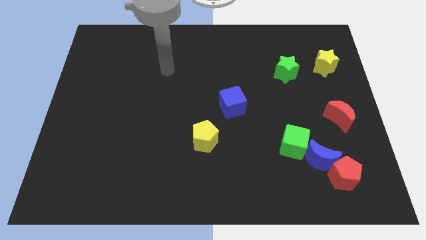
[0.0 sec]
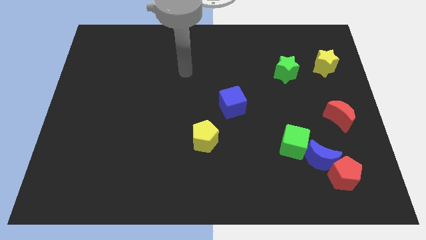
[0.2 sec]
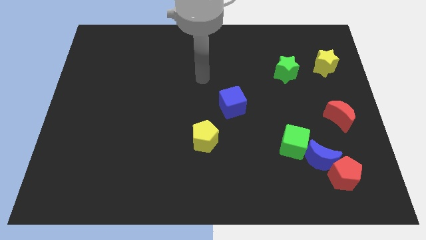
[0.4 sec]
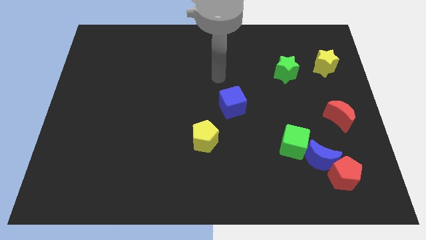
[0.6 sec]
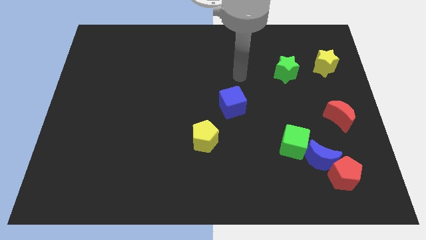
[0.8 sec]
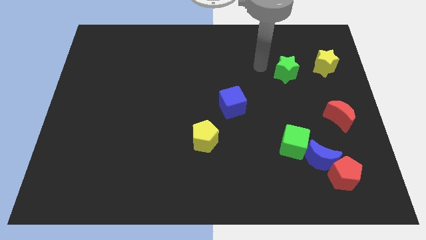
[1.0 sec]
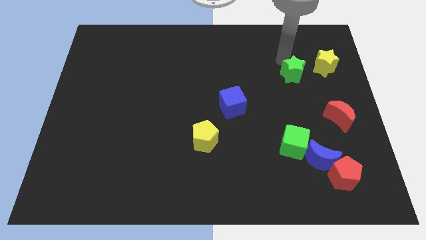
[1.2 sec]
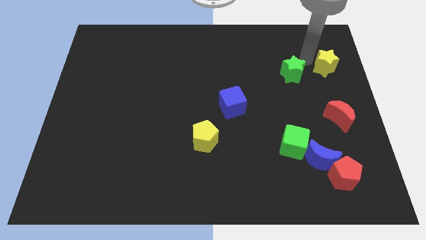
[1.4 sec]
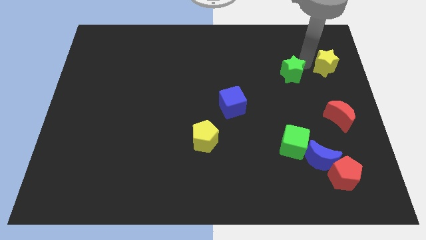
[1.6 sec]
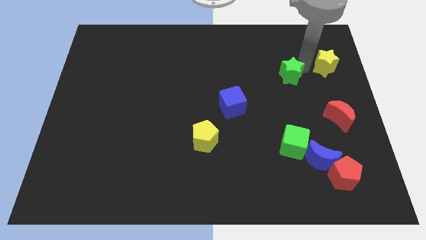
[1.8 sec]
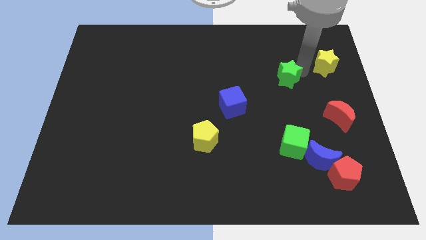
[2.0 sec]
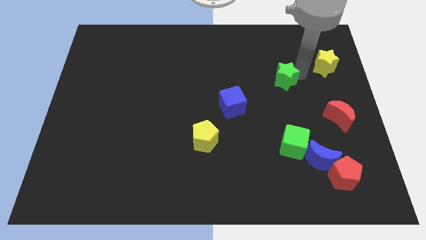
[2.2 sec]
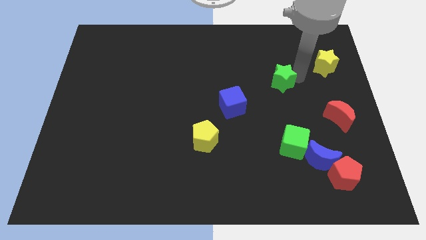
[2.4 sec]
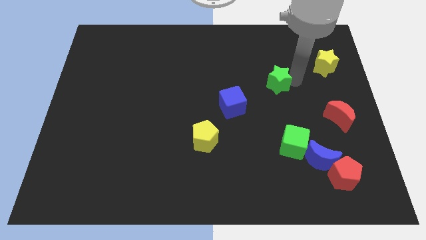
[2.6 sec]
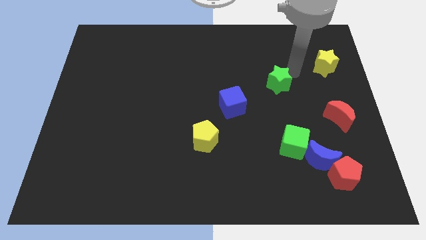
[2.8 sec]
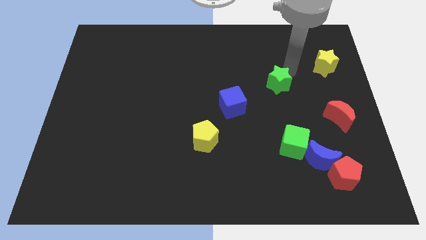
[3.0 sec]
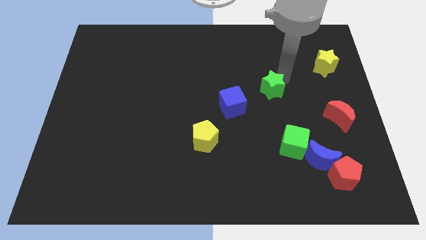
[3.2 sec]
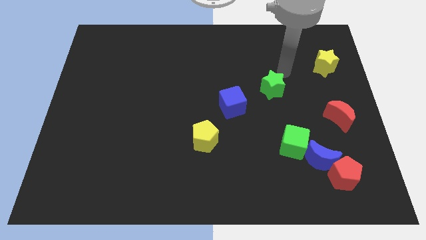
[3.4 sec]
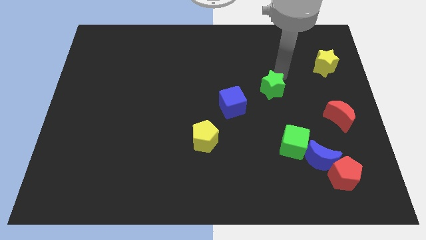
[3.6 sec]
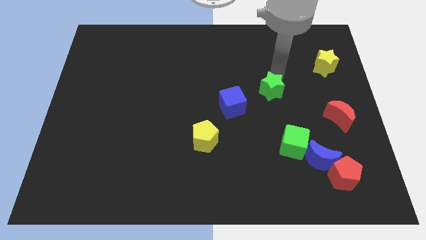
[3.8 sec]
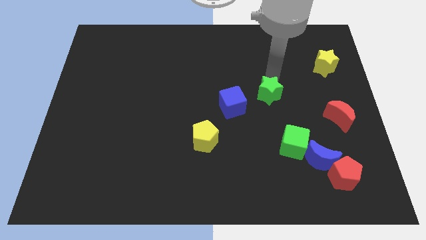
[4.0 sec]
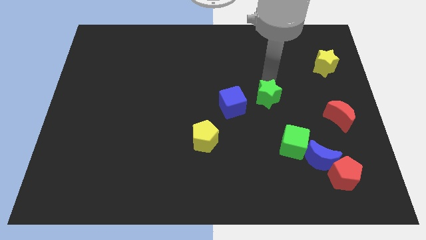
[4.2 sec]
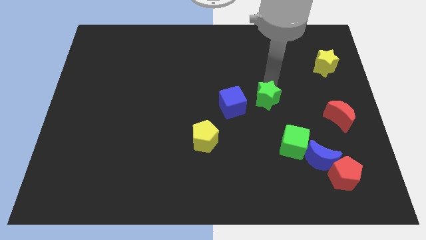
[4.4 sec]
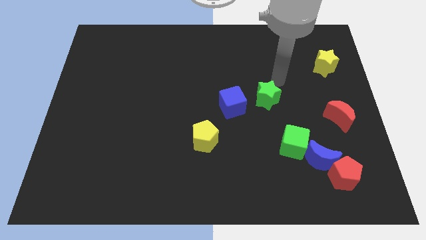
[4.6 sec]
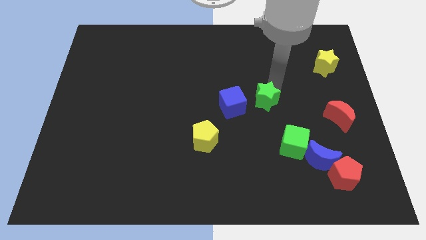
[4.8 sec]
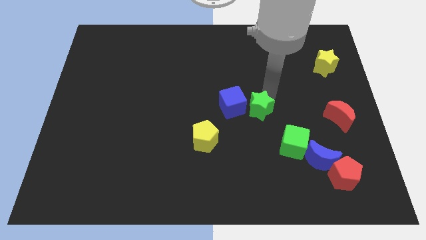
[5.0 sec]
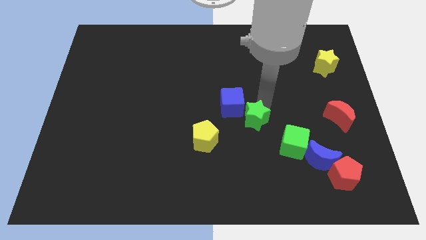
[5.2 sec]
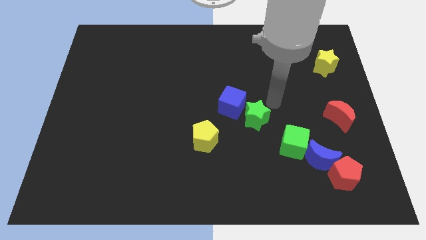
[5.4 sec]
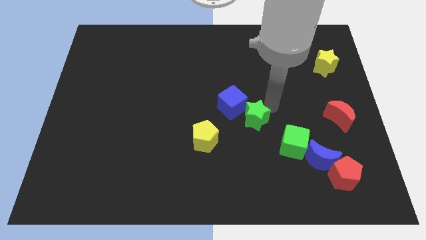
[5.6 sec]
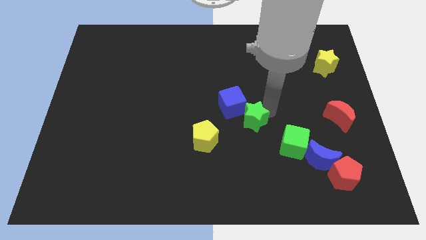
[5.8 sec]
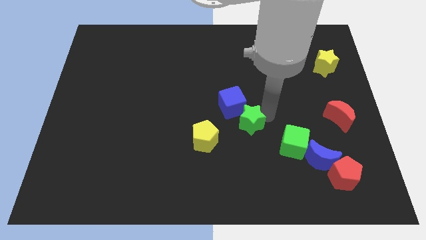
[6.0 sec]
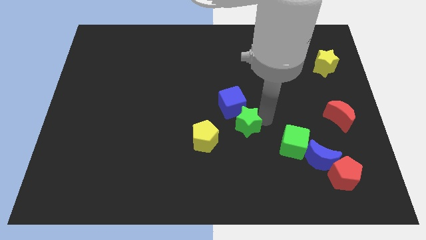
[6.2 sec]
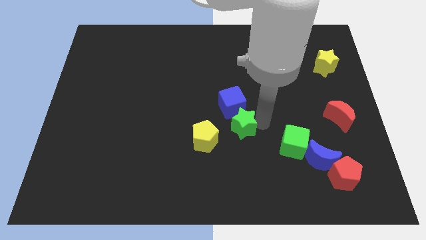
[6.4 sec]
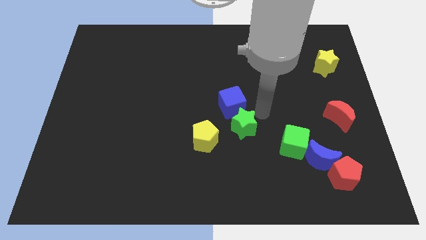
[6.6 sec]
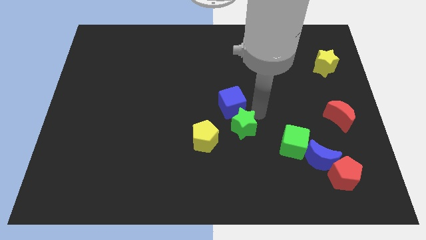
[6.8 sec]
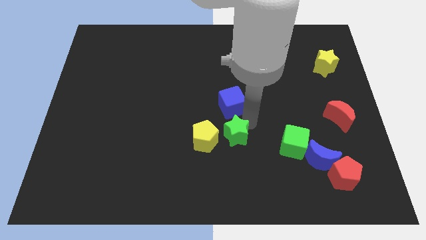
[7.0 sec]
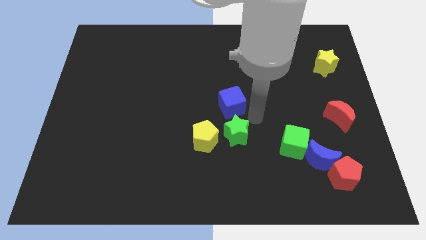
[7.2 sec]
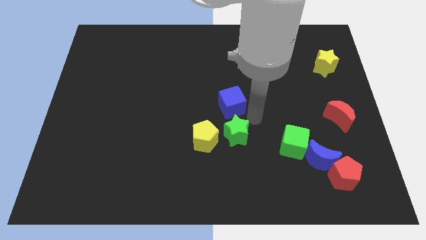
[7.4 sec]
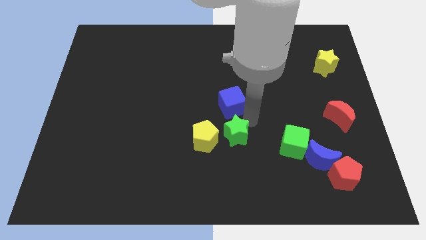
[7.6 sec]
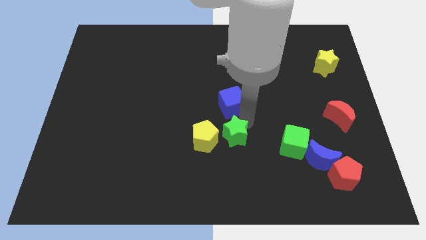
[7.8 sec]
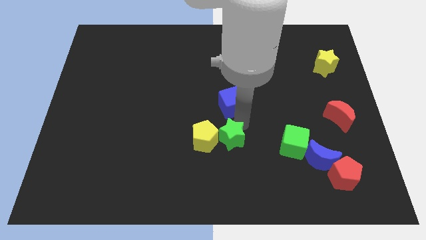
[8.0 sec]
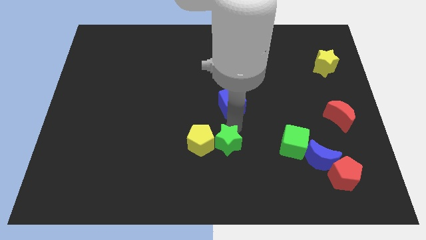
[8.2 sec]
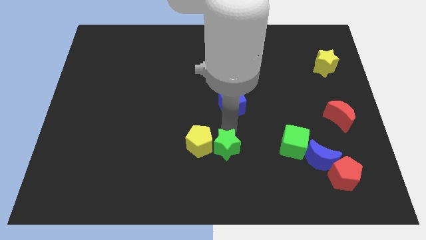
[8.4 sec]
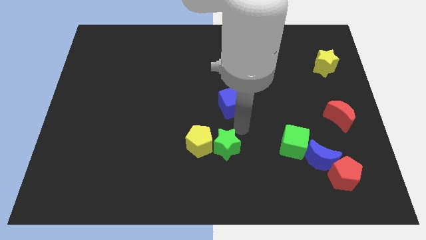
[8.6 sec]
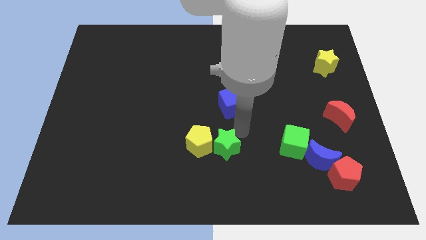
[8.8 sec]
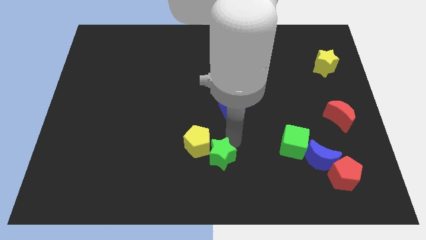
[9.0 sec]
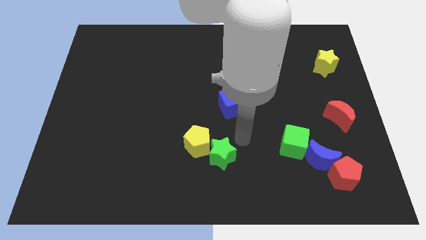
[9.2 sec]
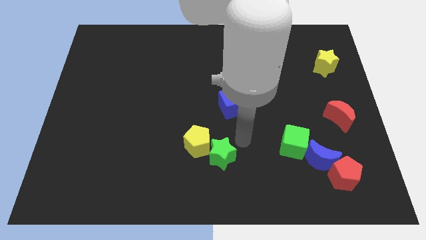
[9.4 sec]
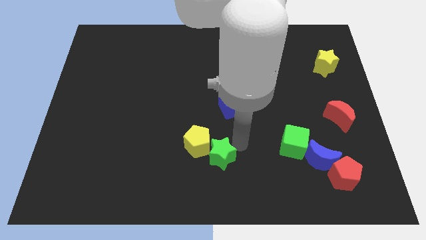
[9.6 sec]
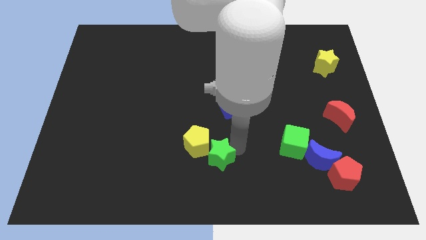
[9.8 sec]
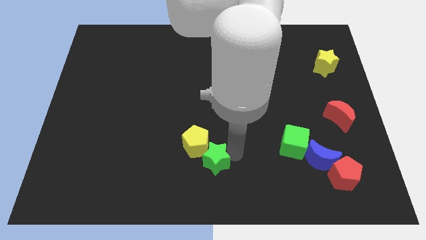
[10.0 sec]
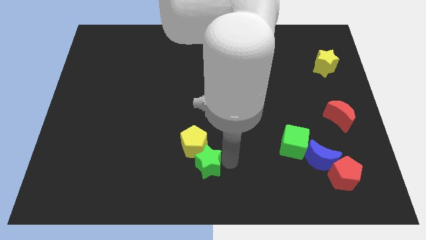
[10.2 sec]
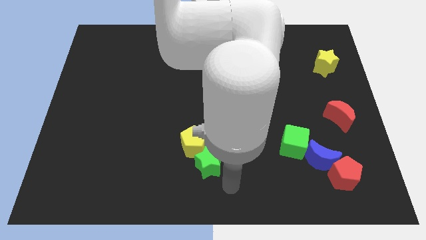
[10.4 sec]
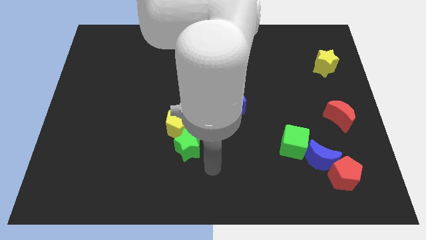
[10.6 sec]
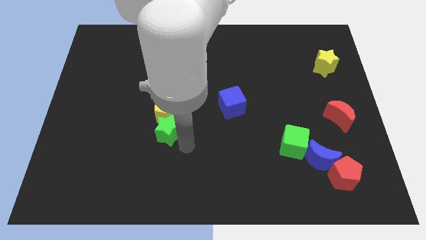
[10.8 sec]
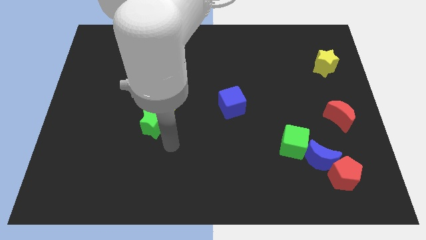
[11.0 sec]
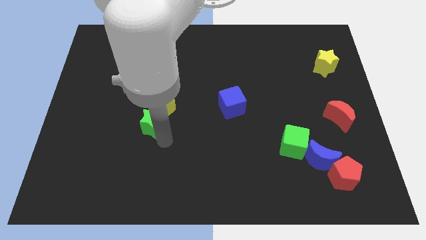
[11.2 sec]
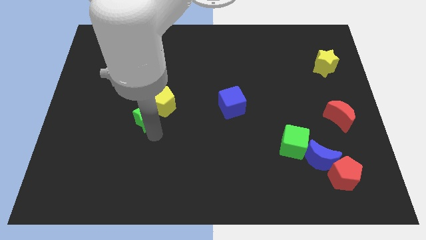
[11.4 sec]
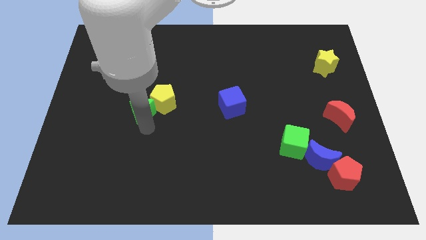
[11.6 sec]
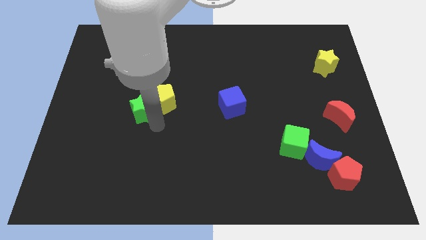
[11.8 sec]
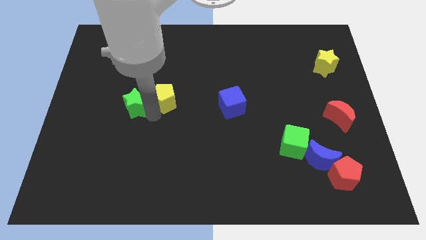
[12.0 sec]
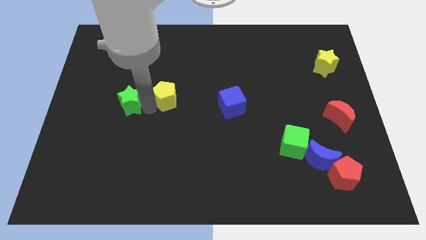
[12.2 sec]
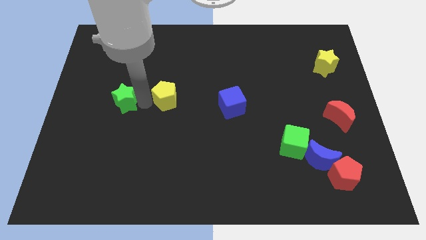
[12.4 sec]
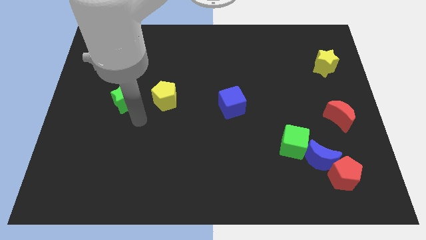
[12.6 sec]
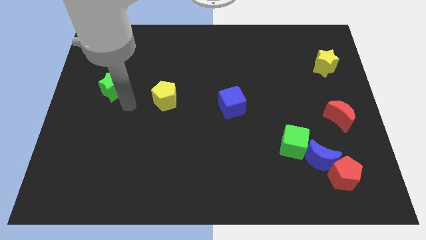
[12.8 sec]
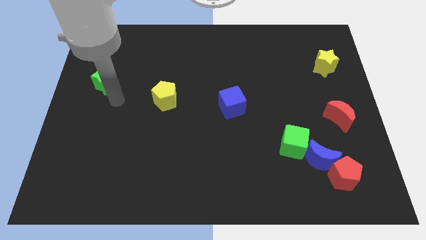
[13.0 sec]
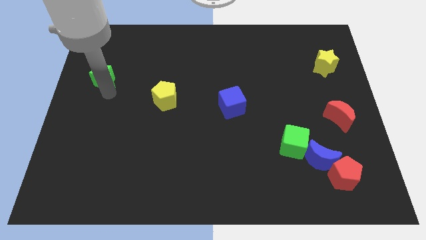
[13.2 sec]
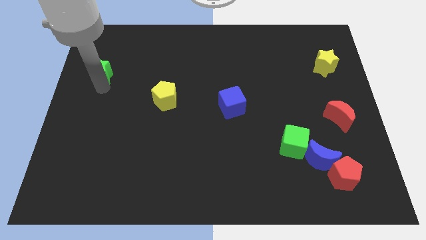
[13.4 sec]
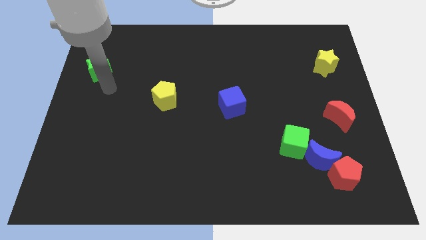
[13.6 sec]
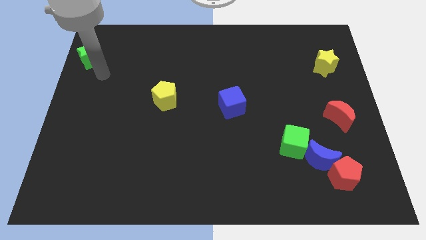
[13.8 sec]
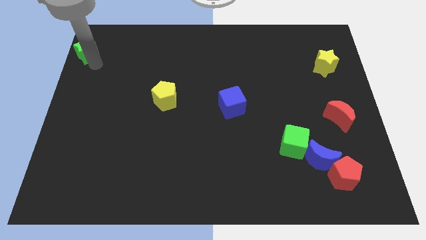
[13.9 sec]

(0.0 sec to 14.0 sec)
put the green star to the top left of the board
